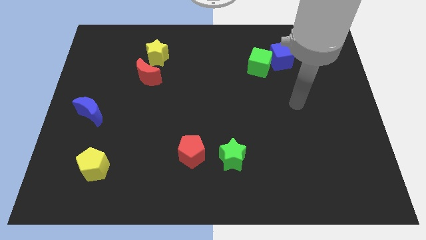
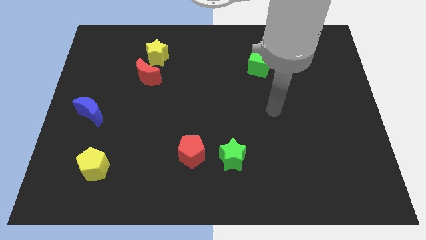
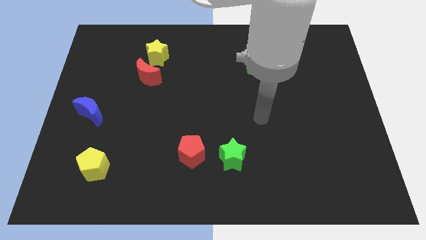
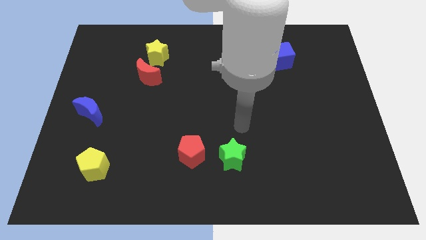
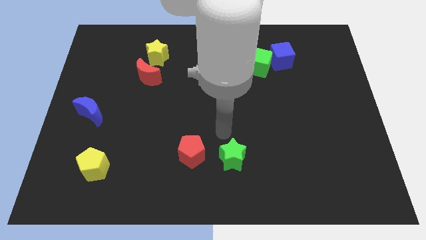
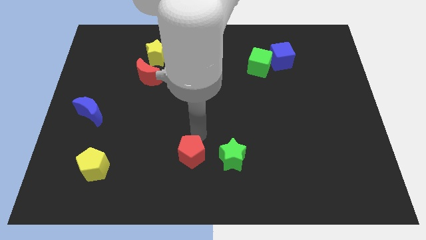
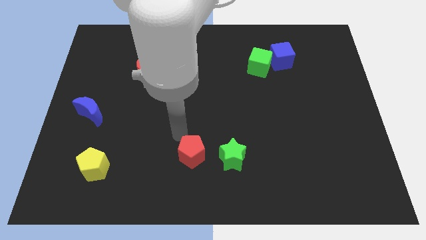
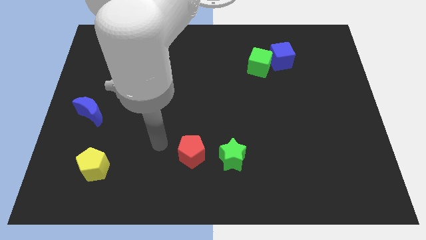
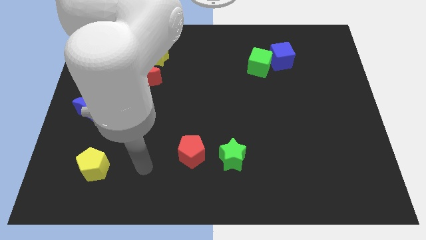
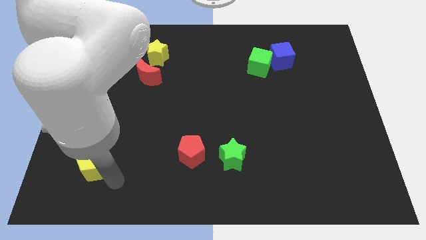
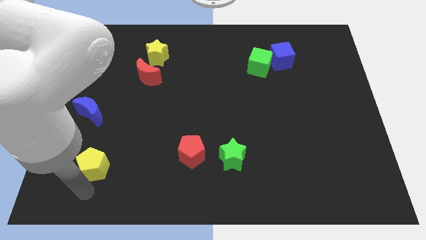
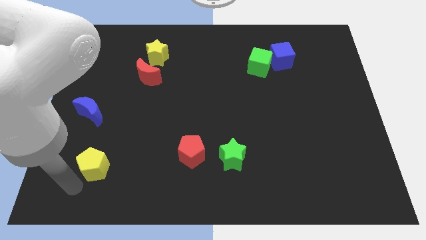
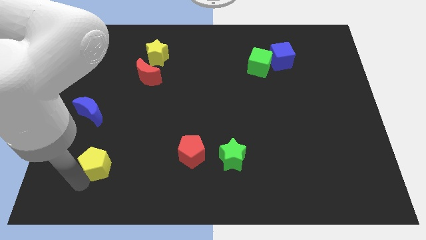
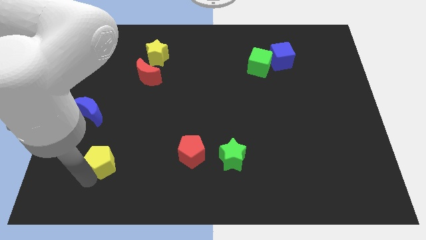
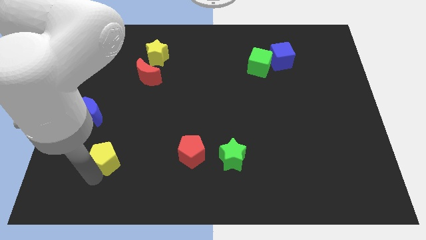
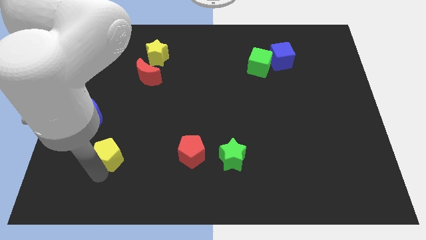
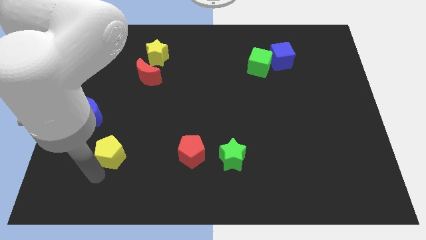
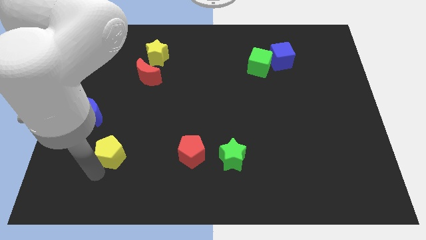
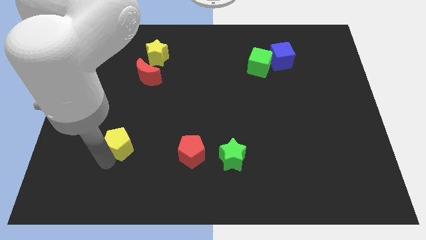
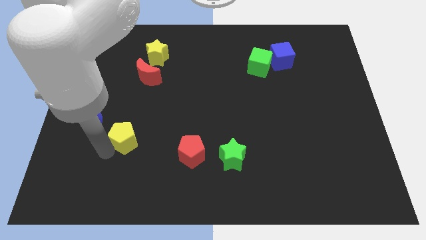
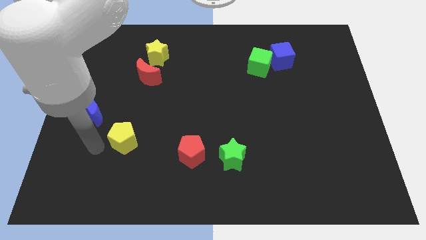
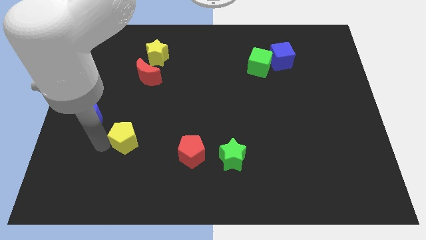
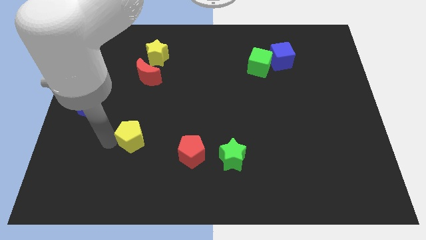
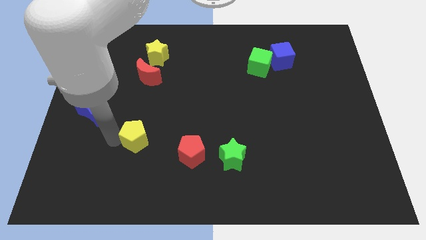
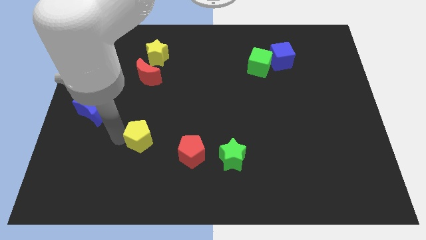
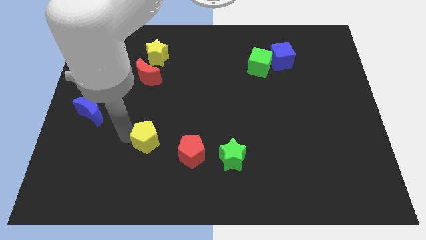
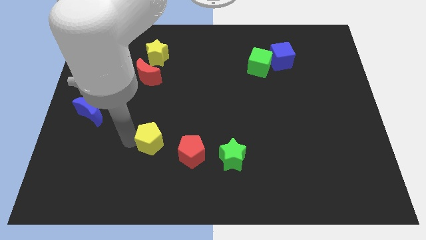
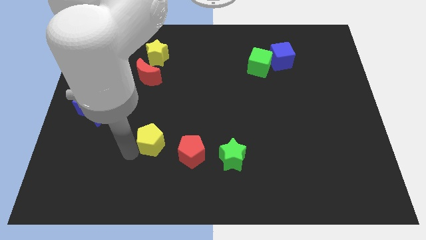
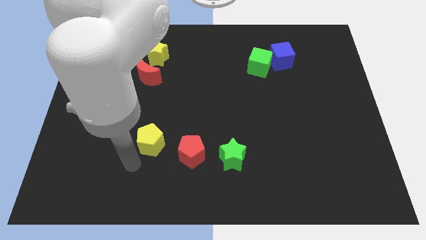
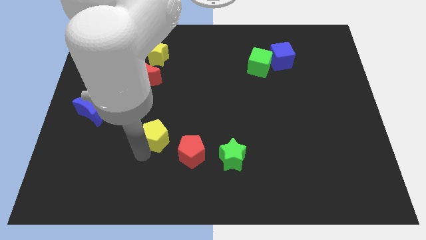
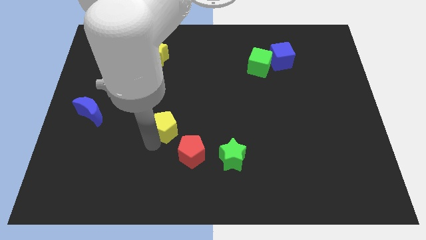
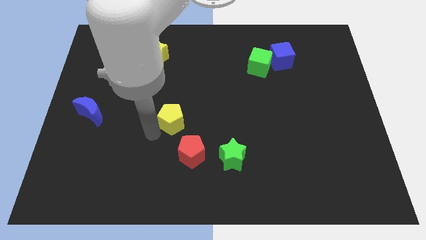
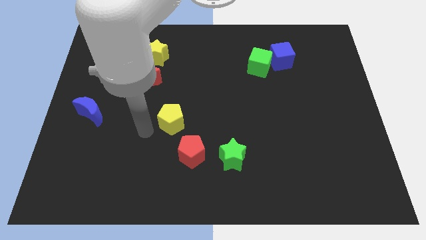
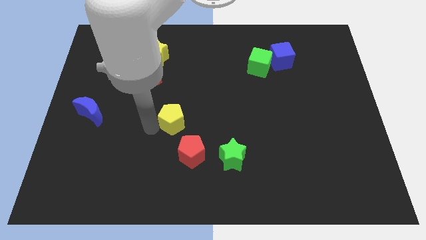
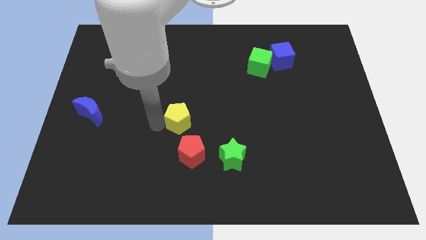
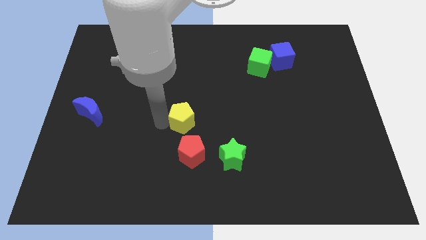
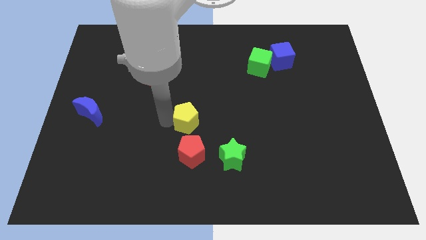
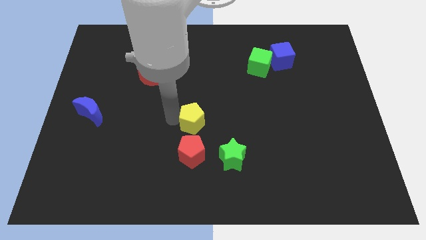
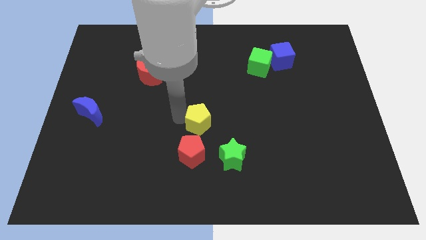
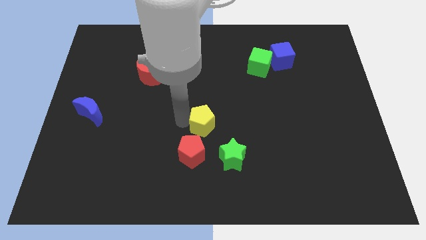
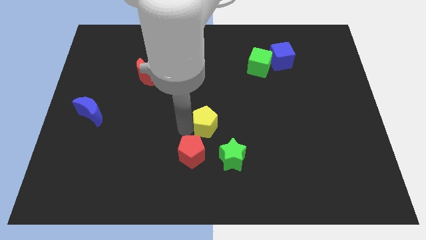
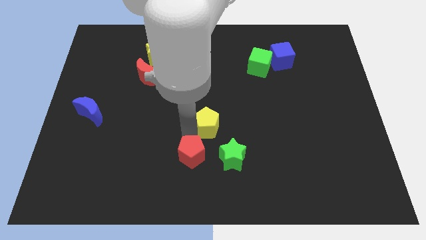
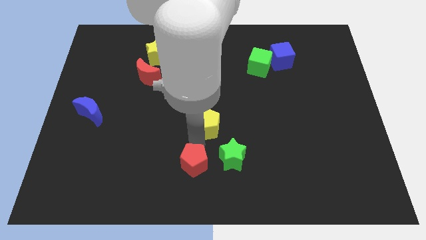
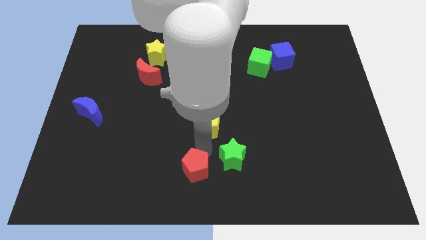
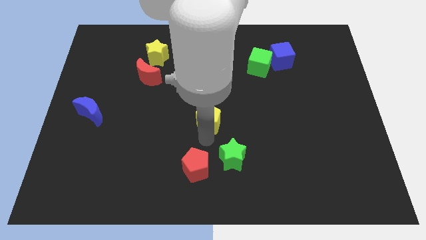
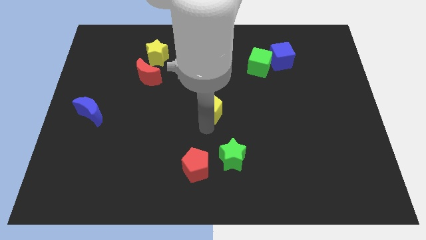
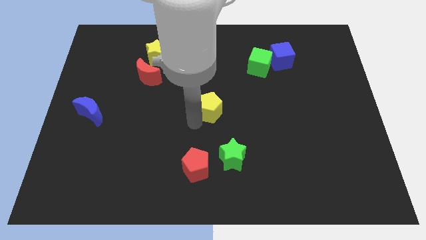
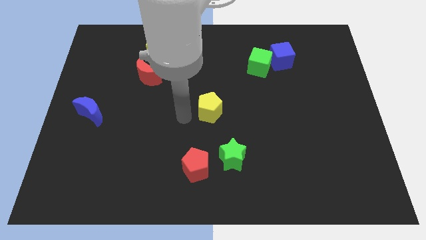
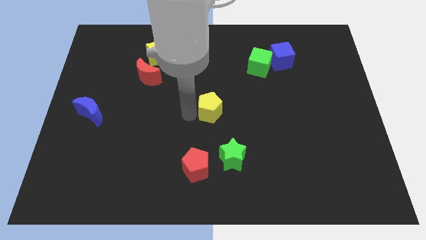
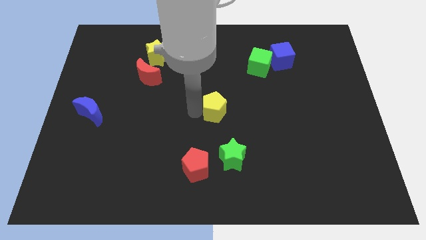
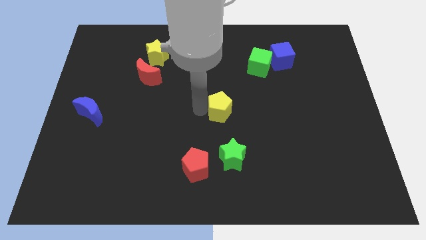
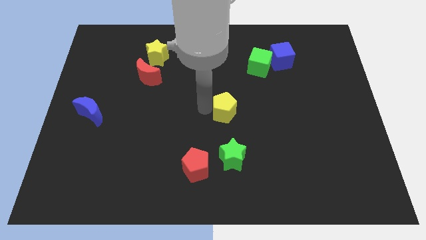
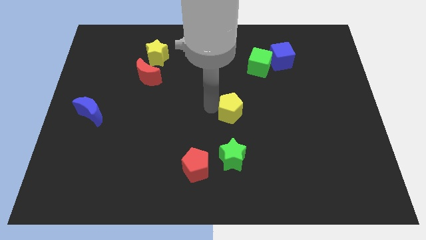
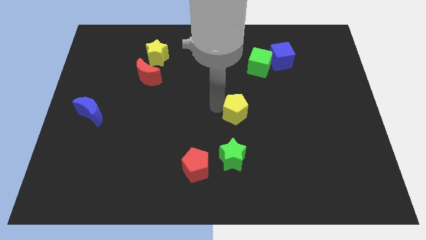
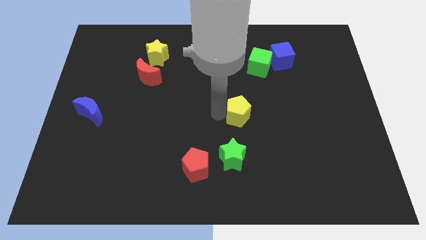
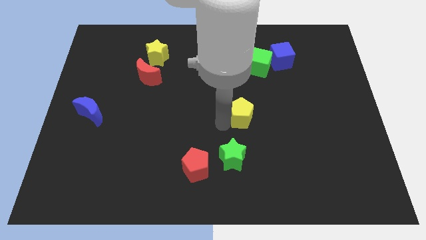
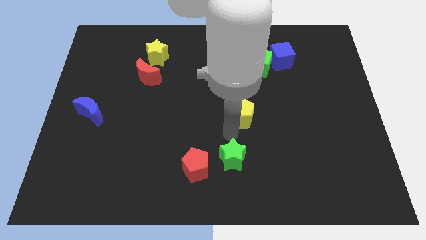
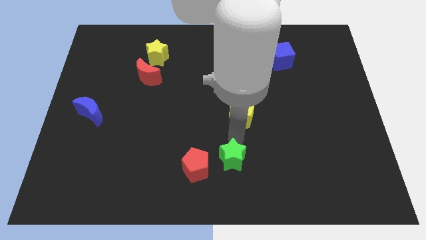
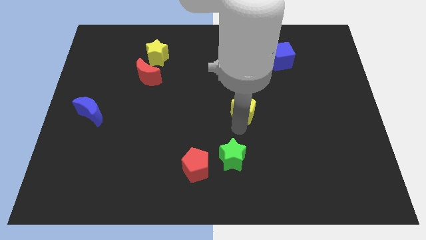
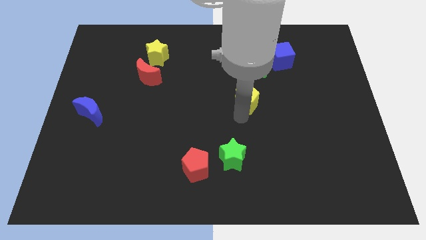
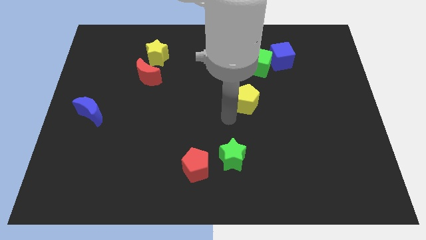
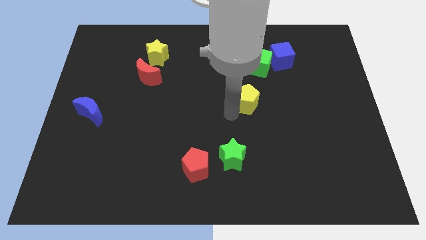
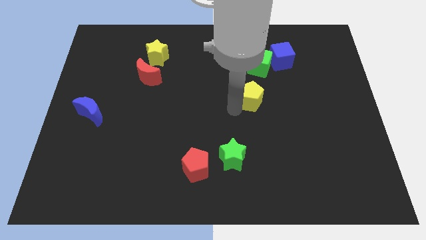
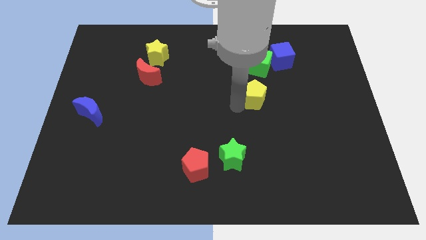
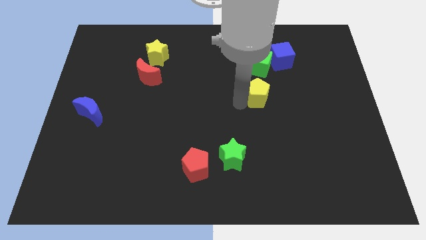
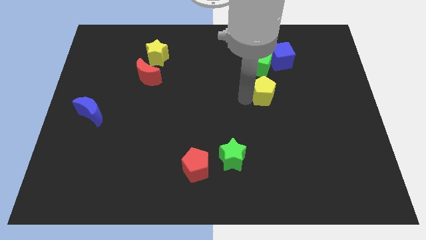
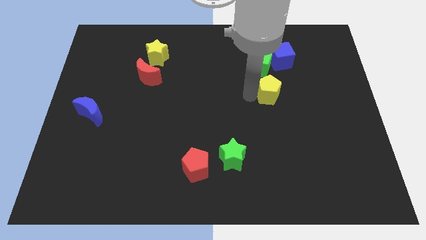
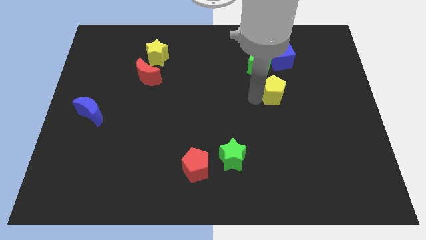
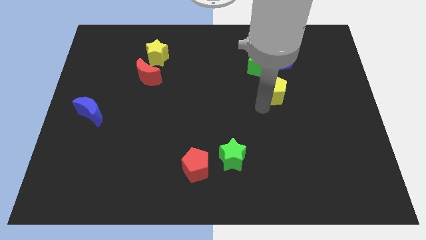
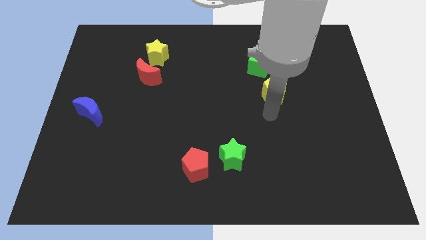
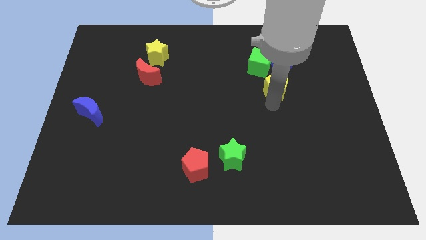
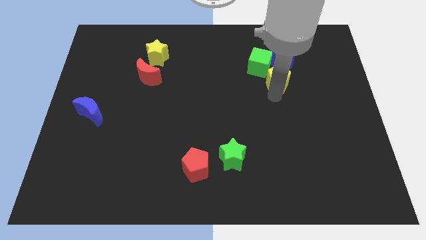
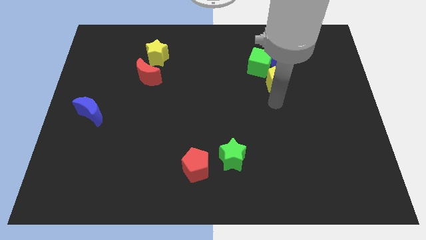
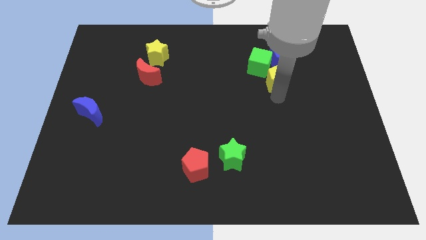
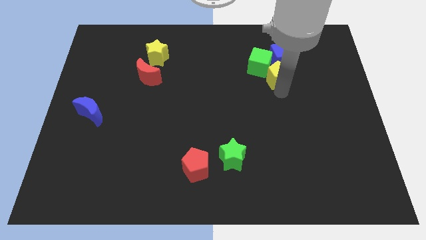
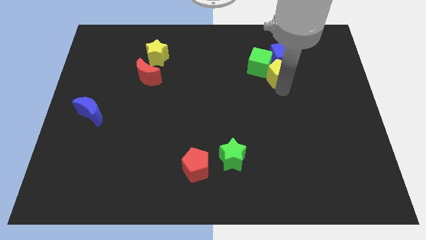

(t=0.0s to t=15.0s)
put the yellow pentagon close to the blue cube
